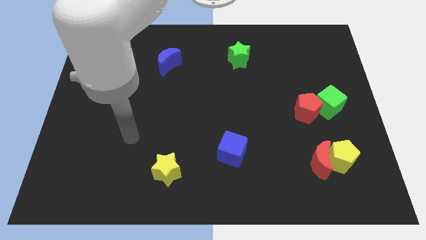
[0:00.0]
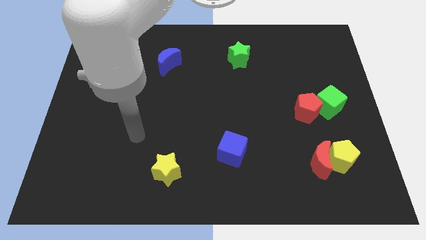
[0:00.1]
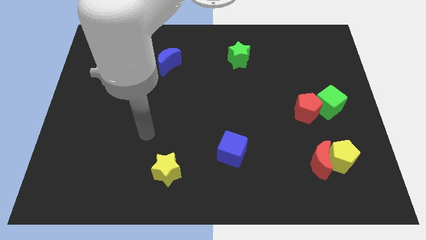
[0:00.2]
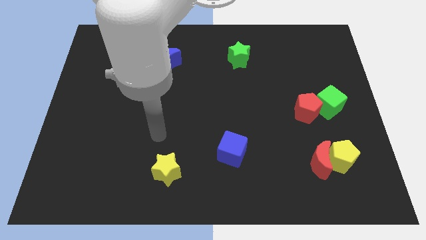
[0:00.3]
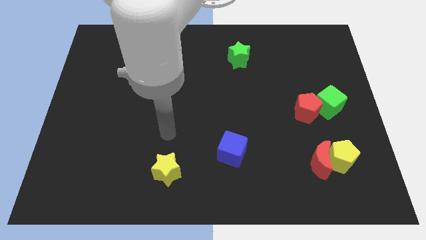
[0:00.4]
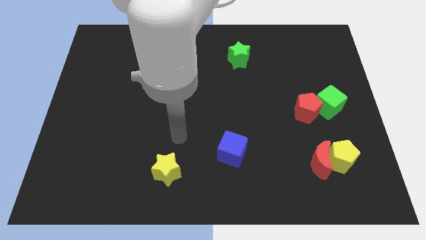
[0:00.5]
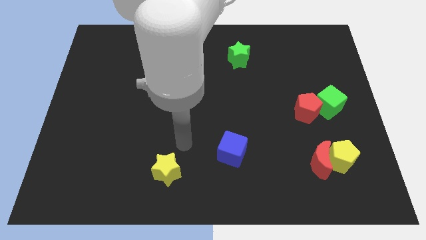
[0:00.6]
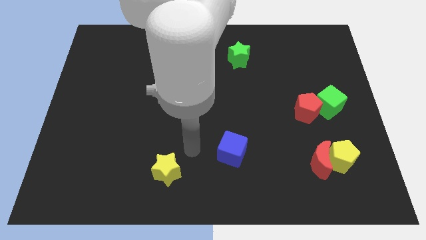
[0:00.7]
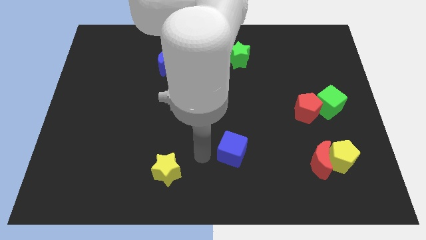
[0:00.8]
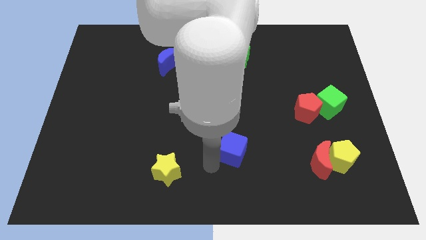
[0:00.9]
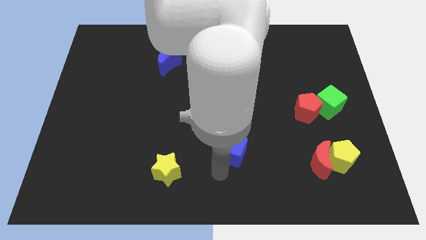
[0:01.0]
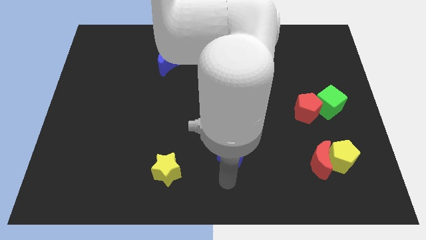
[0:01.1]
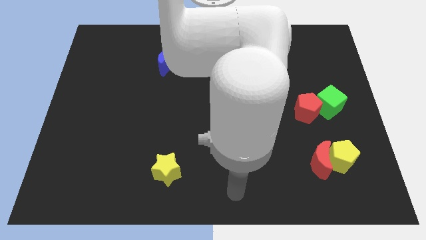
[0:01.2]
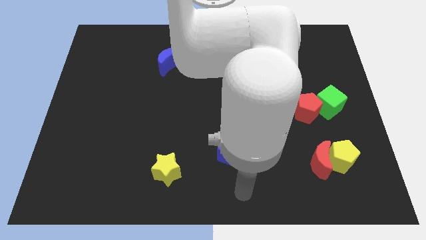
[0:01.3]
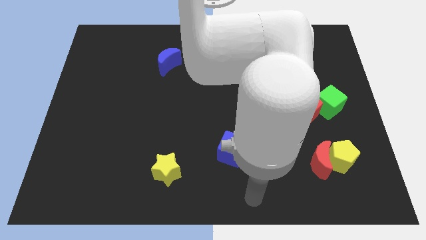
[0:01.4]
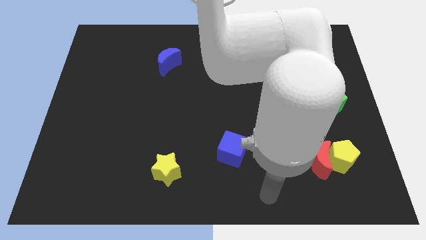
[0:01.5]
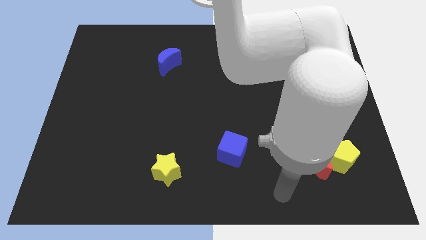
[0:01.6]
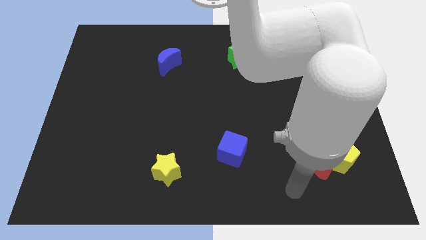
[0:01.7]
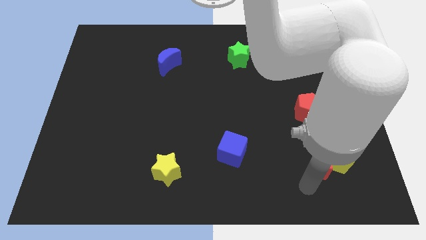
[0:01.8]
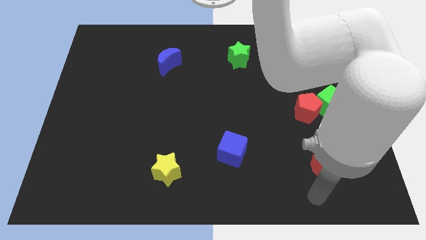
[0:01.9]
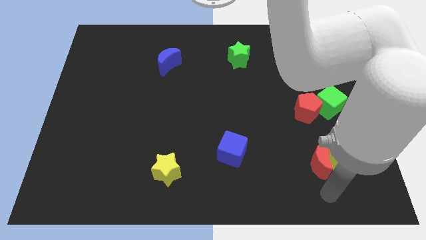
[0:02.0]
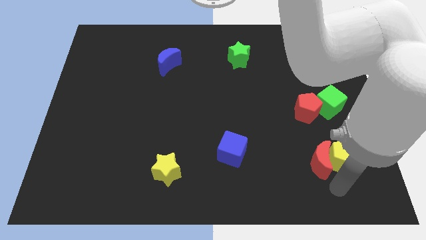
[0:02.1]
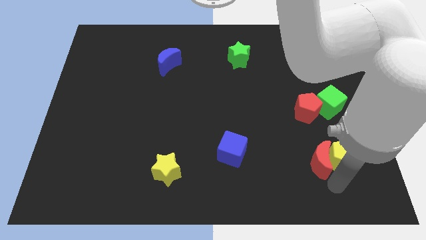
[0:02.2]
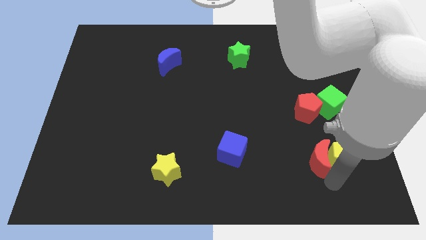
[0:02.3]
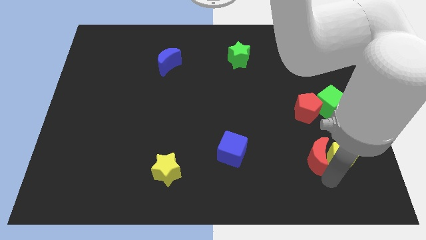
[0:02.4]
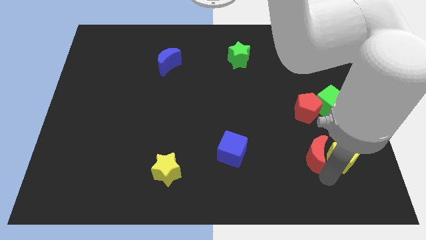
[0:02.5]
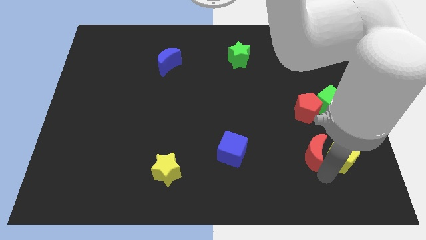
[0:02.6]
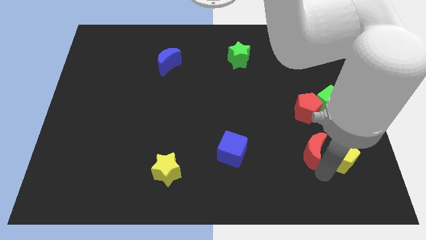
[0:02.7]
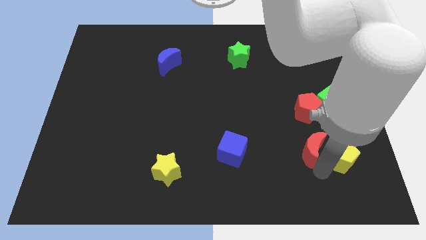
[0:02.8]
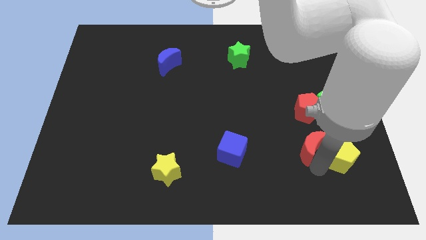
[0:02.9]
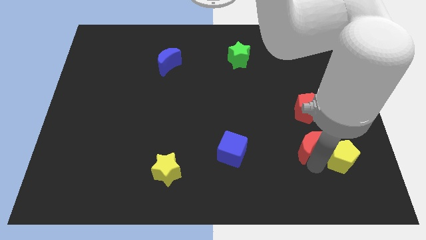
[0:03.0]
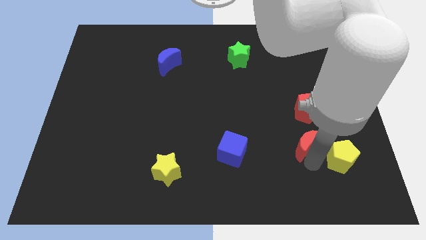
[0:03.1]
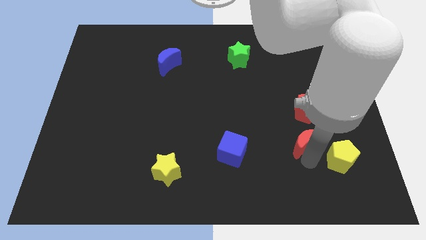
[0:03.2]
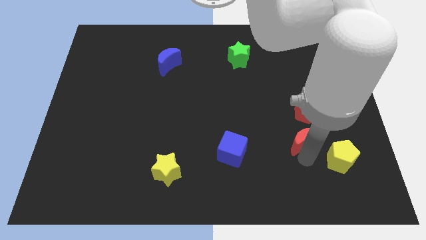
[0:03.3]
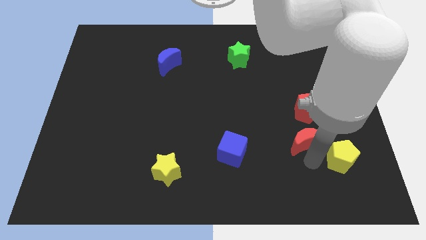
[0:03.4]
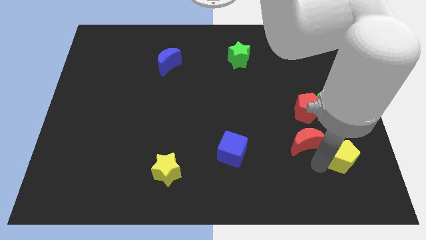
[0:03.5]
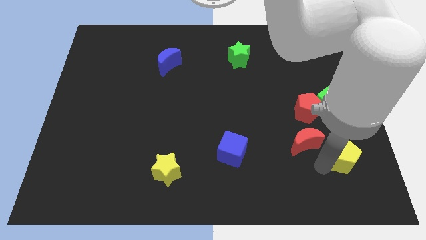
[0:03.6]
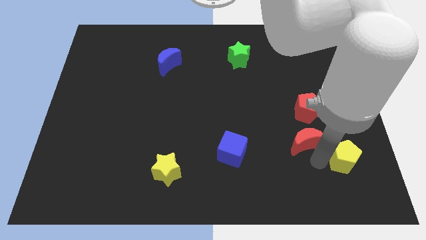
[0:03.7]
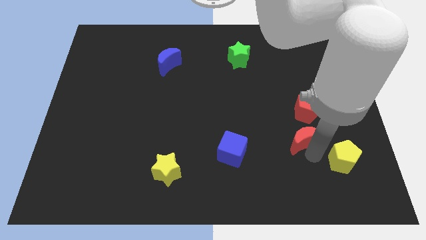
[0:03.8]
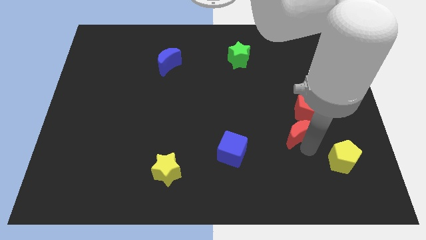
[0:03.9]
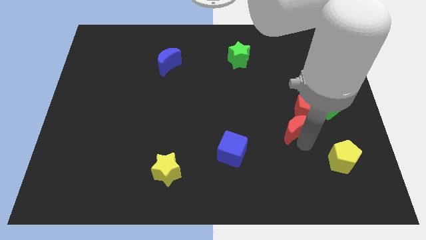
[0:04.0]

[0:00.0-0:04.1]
slide the red moon upwards a bit

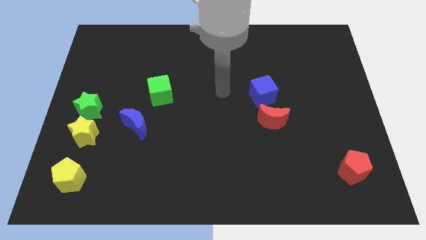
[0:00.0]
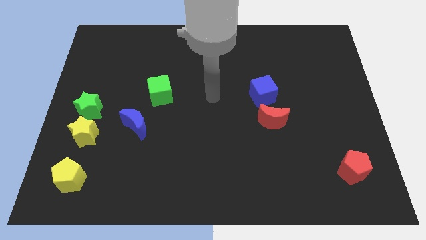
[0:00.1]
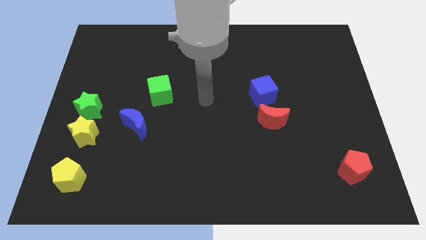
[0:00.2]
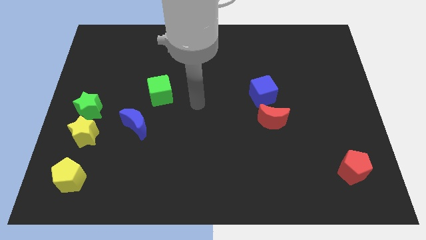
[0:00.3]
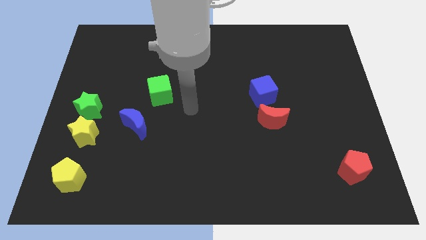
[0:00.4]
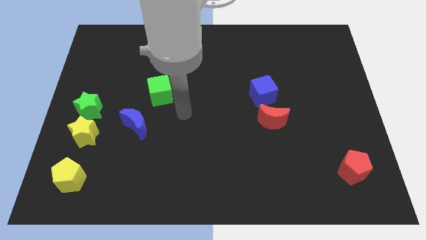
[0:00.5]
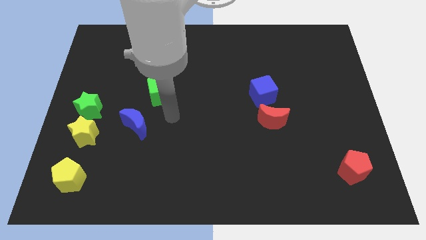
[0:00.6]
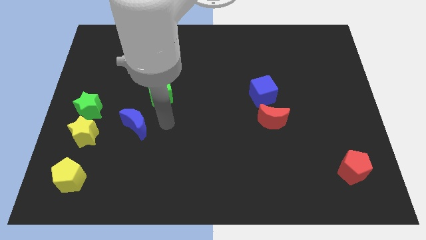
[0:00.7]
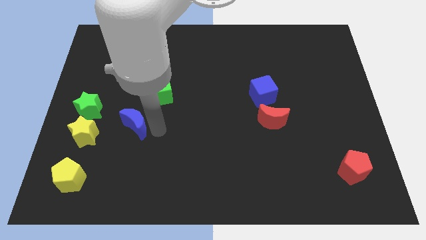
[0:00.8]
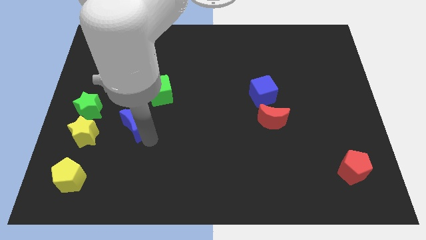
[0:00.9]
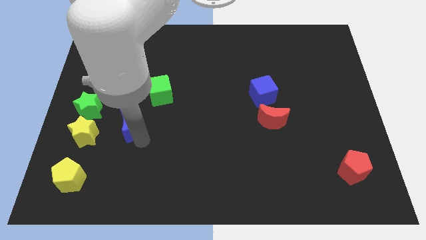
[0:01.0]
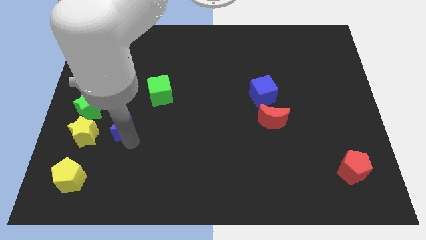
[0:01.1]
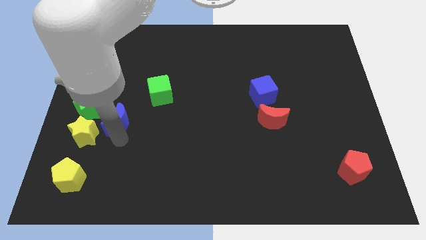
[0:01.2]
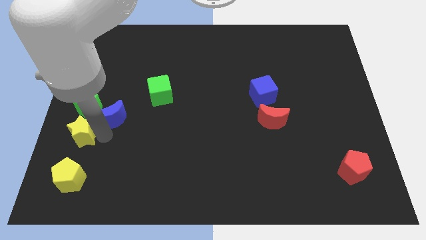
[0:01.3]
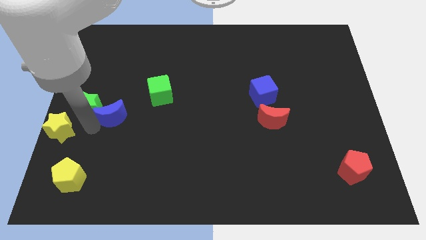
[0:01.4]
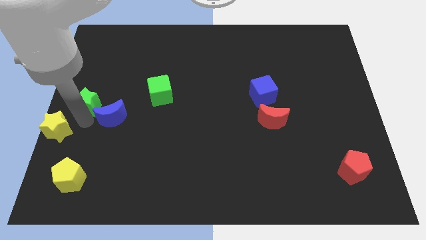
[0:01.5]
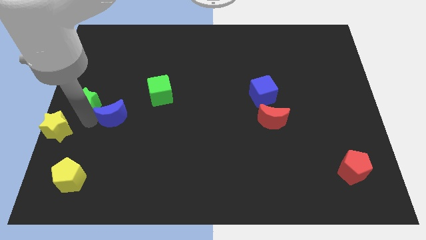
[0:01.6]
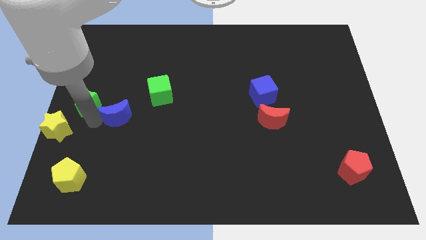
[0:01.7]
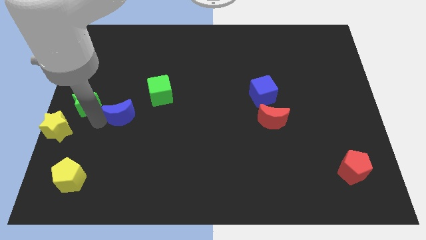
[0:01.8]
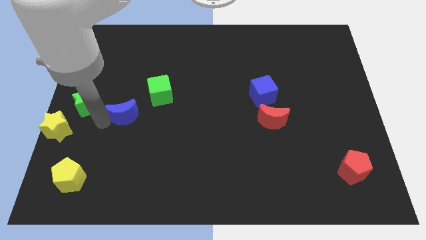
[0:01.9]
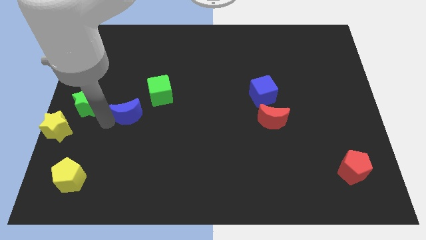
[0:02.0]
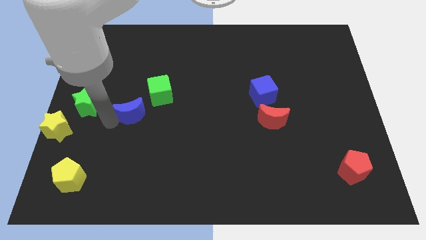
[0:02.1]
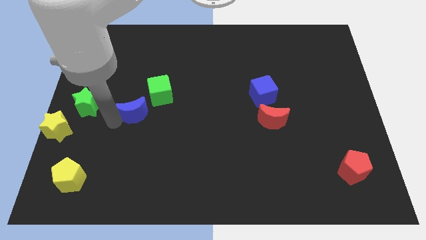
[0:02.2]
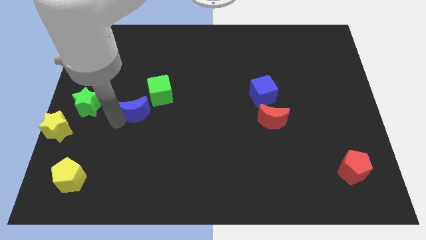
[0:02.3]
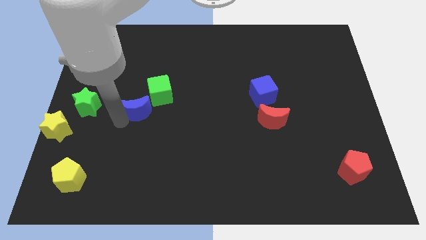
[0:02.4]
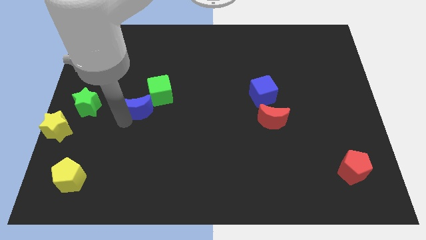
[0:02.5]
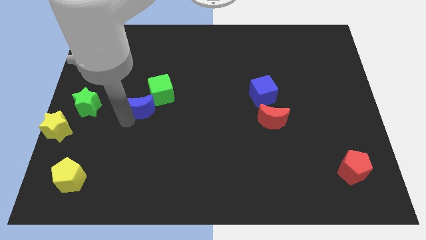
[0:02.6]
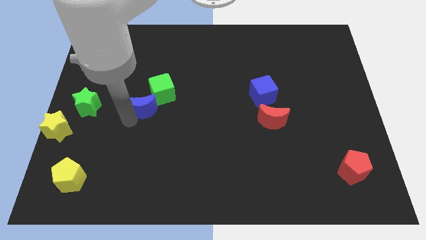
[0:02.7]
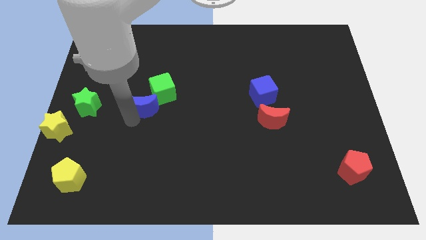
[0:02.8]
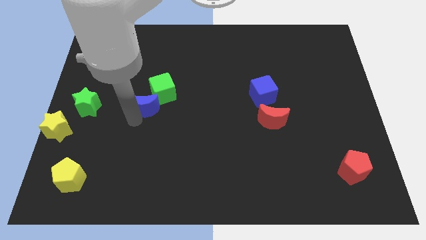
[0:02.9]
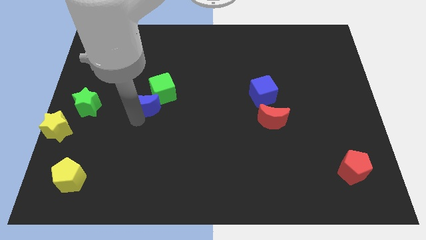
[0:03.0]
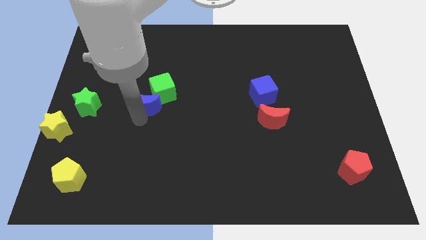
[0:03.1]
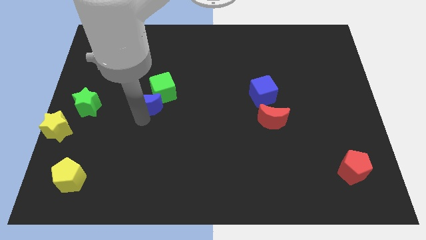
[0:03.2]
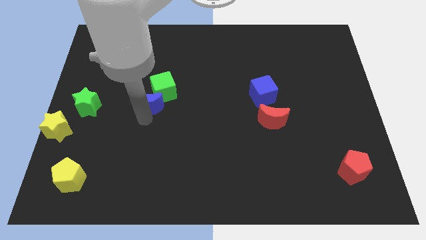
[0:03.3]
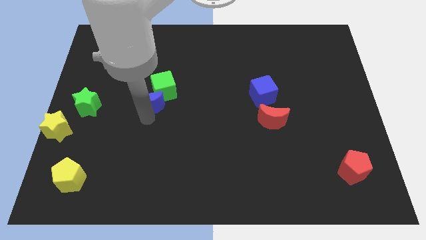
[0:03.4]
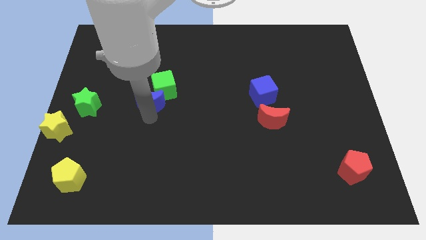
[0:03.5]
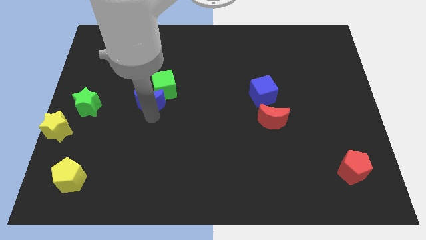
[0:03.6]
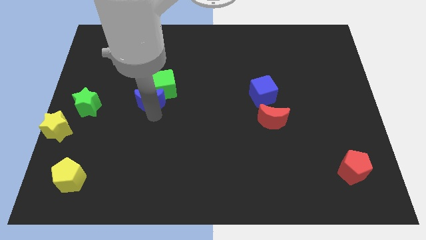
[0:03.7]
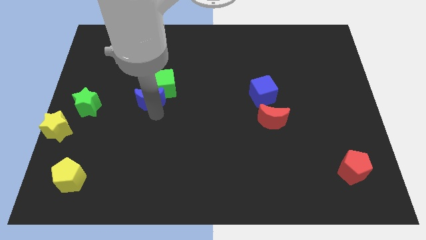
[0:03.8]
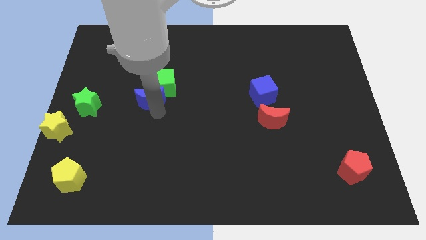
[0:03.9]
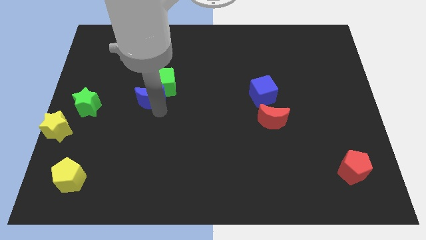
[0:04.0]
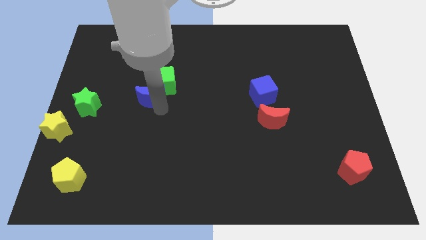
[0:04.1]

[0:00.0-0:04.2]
move the blue moon a little diagonally upwards and to the right
